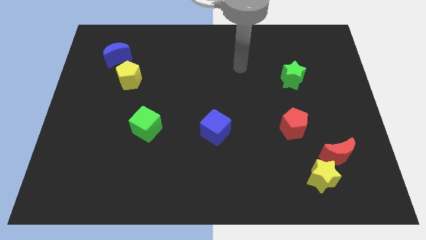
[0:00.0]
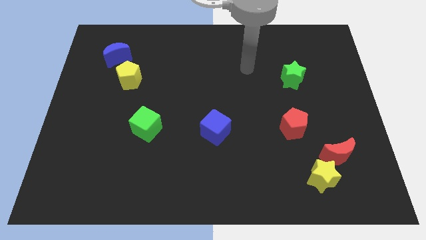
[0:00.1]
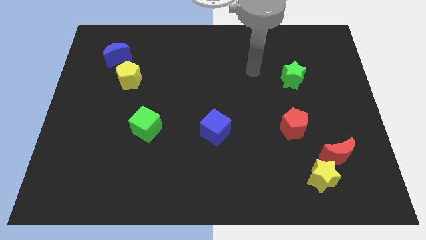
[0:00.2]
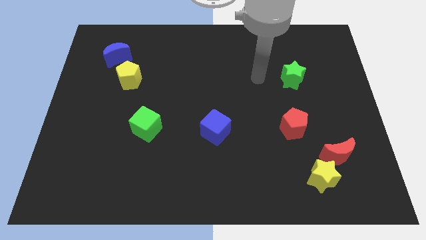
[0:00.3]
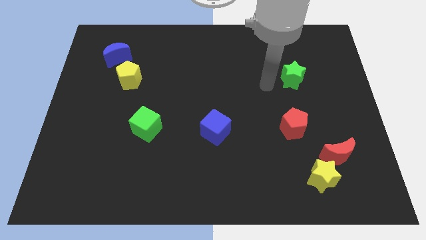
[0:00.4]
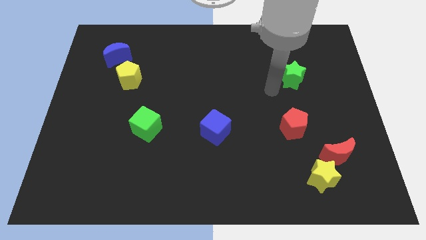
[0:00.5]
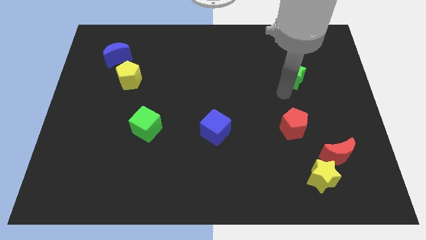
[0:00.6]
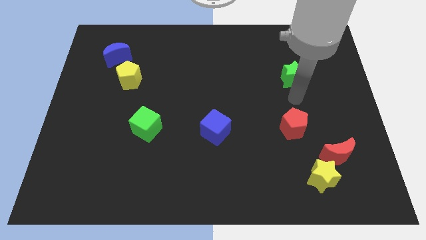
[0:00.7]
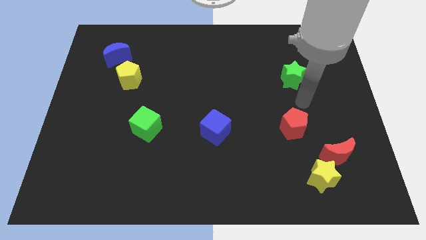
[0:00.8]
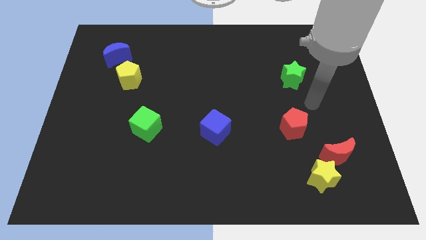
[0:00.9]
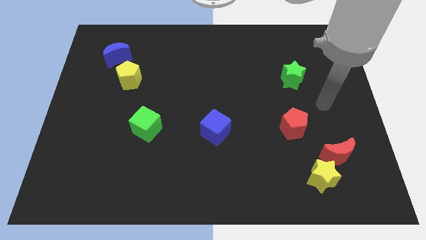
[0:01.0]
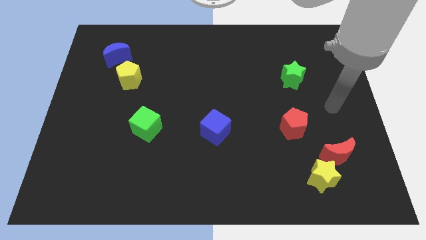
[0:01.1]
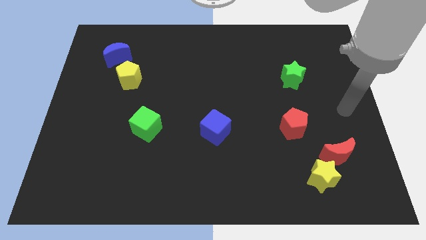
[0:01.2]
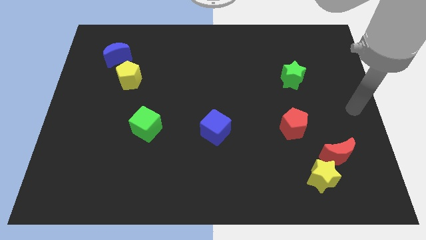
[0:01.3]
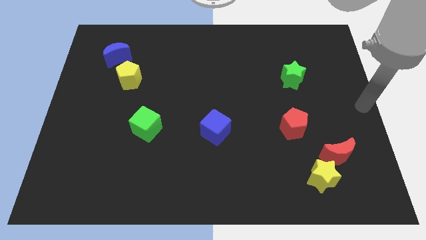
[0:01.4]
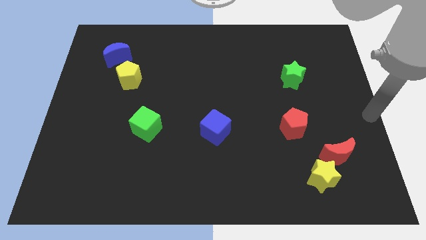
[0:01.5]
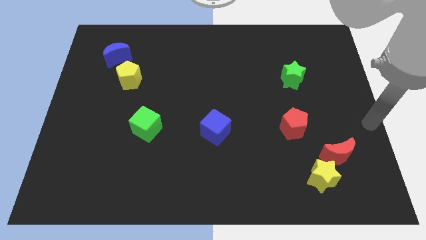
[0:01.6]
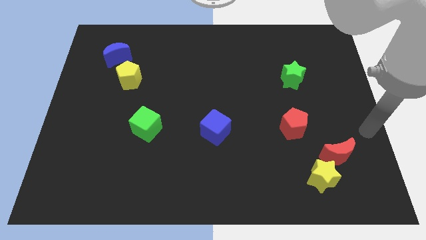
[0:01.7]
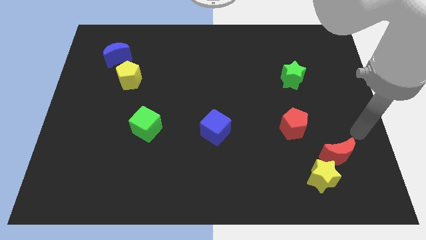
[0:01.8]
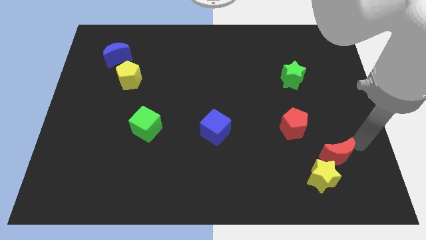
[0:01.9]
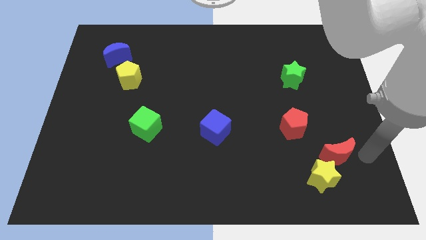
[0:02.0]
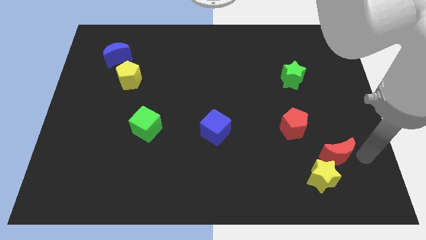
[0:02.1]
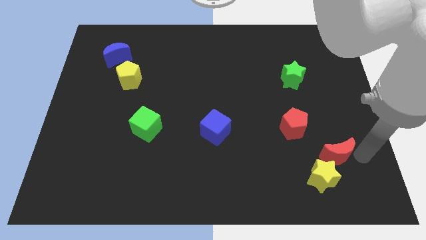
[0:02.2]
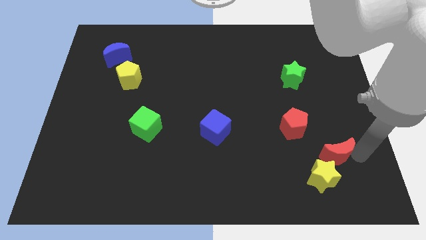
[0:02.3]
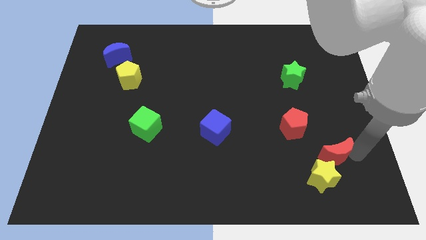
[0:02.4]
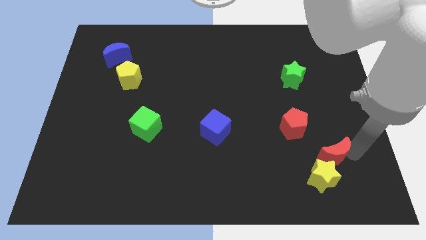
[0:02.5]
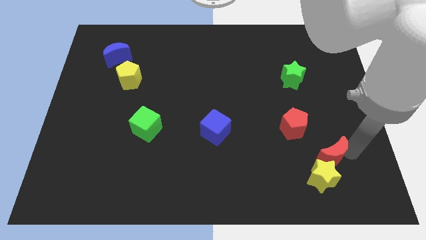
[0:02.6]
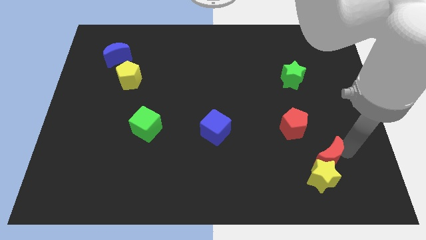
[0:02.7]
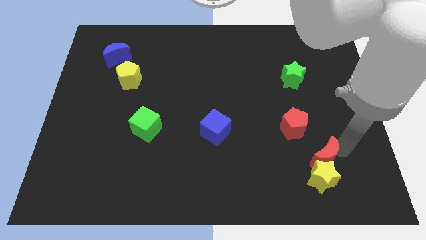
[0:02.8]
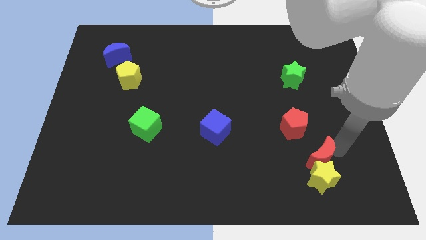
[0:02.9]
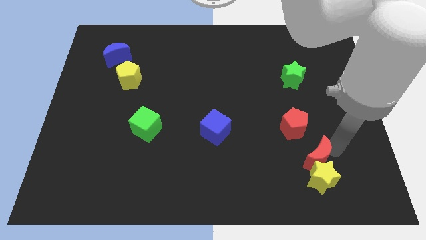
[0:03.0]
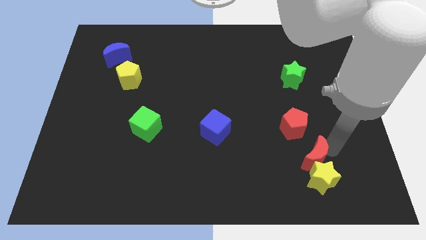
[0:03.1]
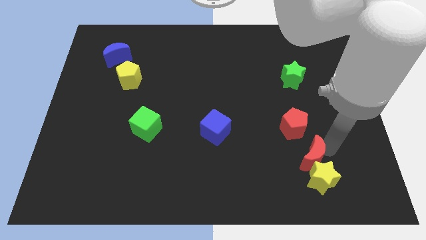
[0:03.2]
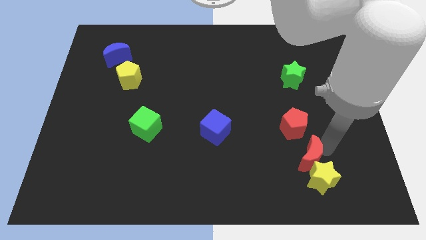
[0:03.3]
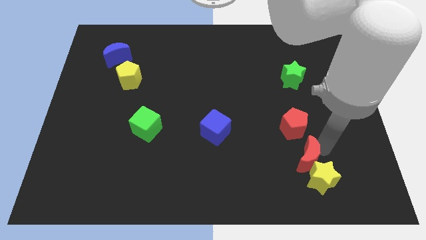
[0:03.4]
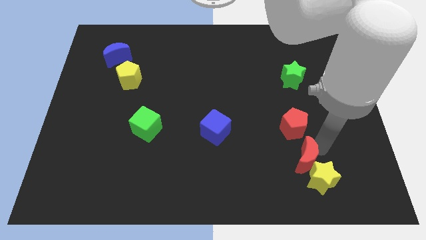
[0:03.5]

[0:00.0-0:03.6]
slightly push the red moon to the left

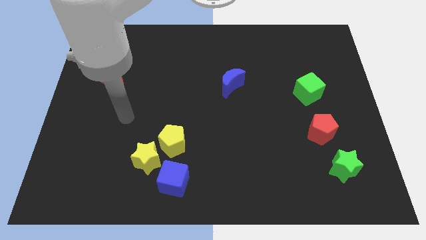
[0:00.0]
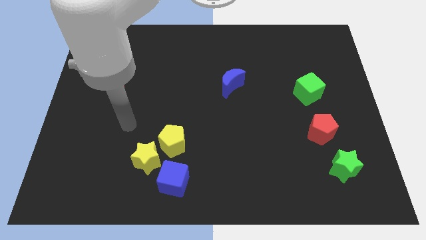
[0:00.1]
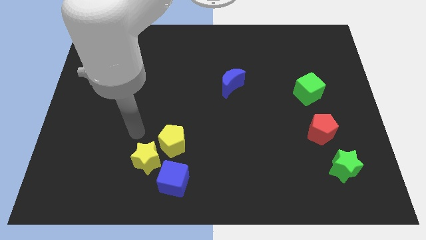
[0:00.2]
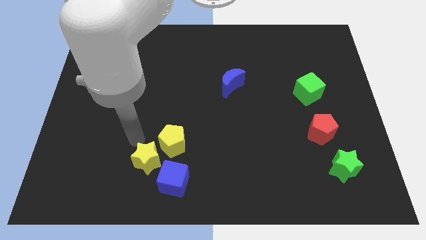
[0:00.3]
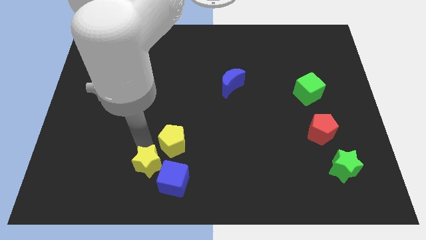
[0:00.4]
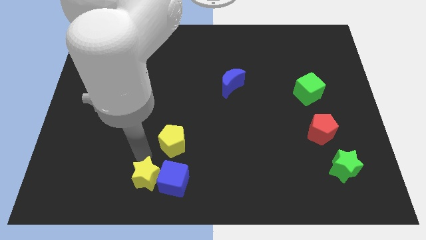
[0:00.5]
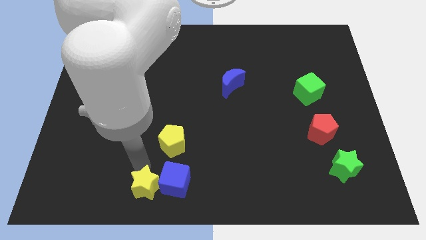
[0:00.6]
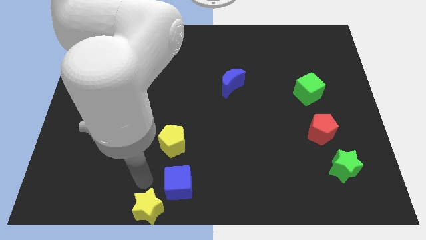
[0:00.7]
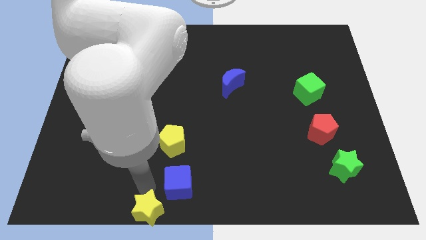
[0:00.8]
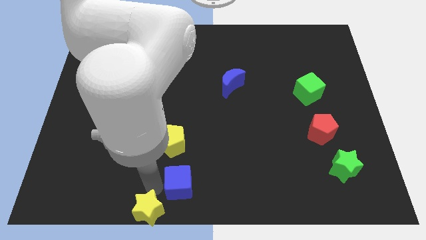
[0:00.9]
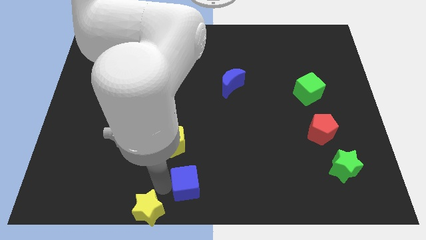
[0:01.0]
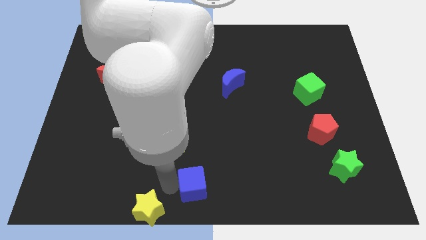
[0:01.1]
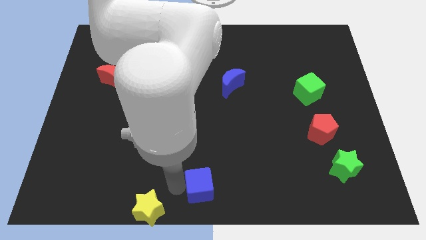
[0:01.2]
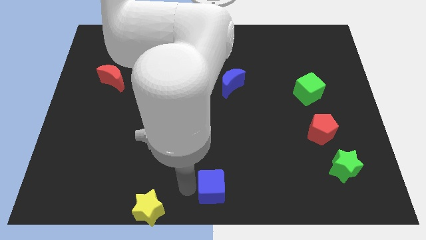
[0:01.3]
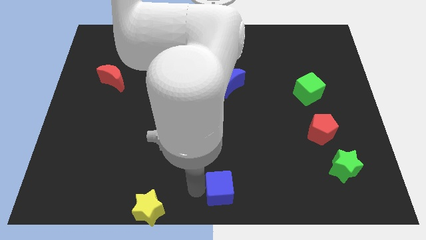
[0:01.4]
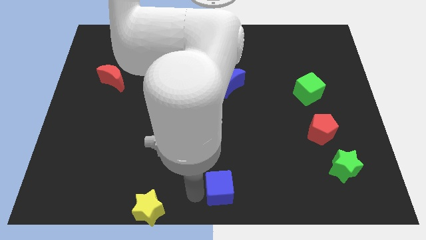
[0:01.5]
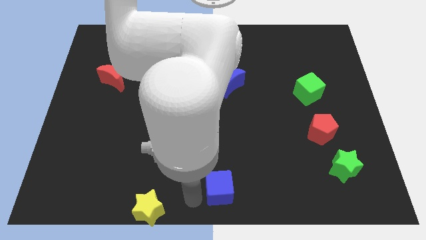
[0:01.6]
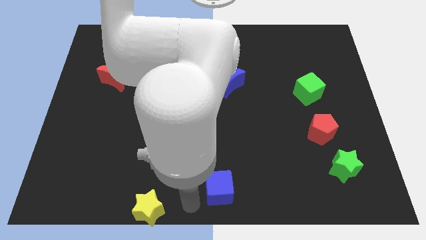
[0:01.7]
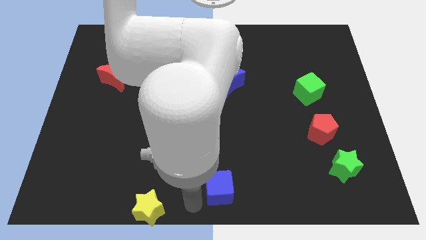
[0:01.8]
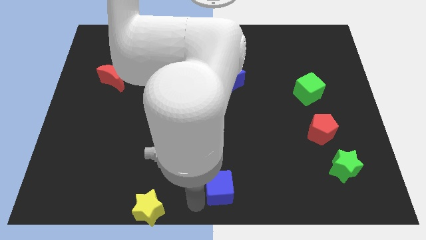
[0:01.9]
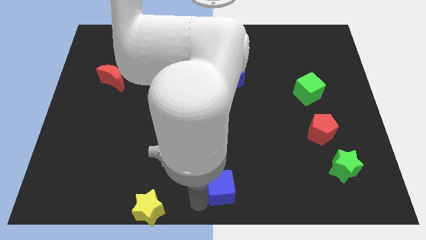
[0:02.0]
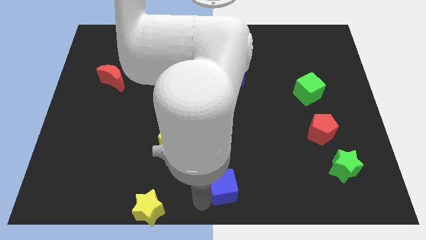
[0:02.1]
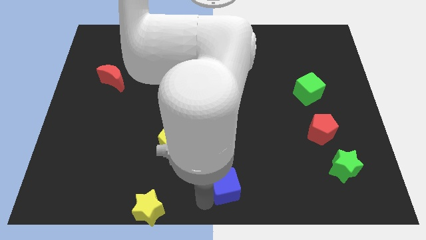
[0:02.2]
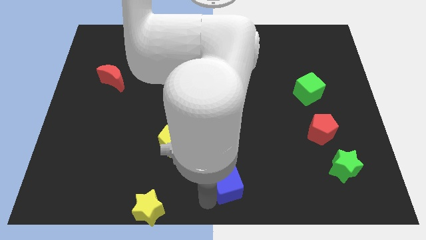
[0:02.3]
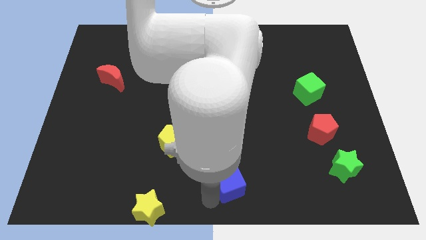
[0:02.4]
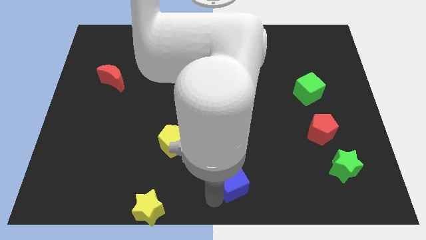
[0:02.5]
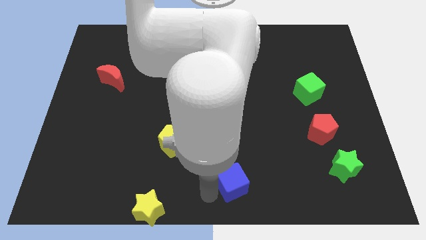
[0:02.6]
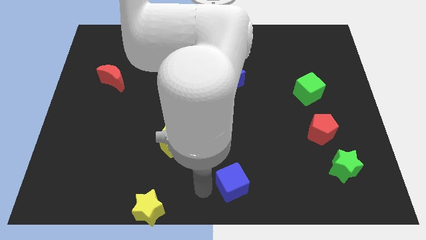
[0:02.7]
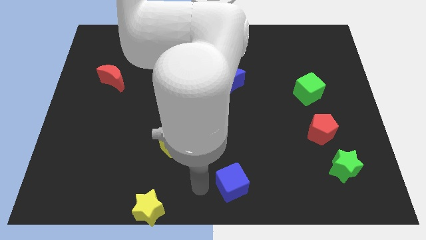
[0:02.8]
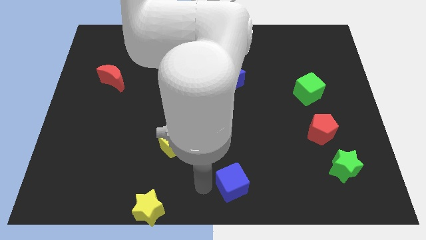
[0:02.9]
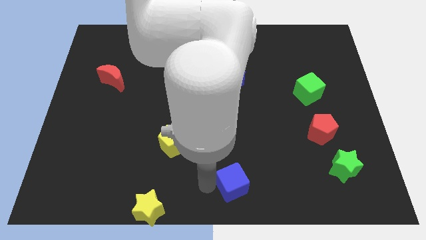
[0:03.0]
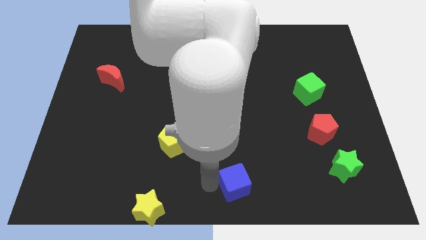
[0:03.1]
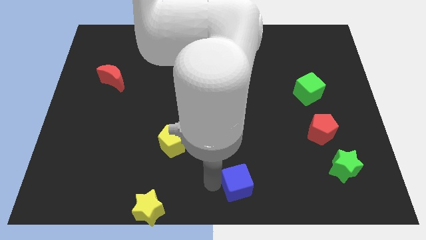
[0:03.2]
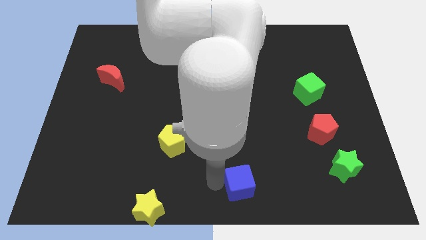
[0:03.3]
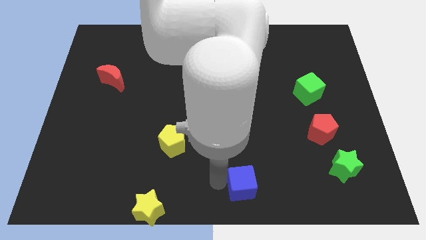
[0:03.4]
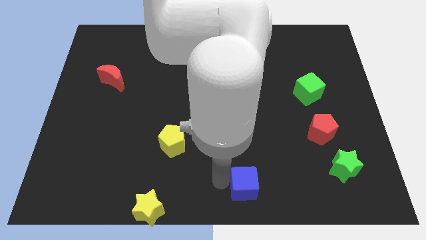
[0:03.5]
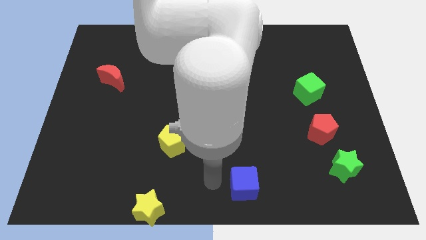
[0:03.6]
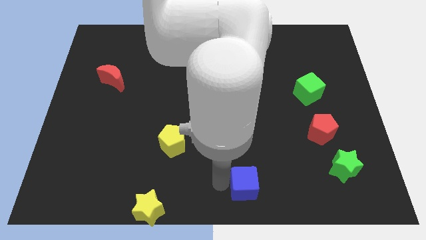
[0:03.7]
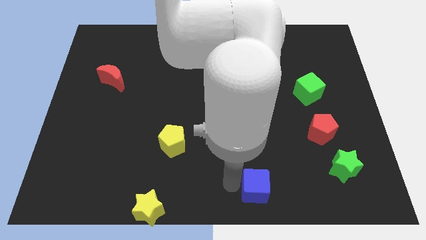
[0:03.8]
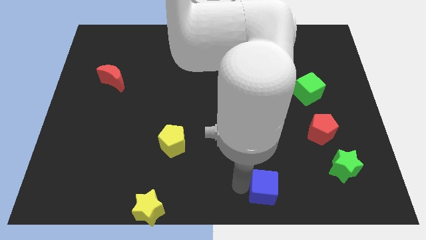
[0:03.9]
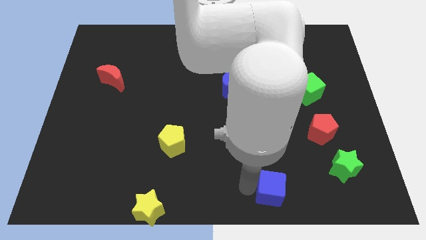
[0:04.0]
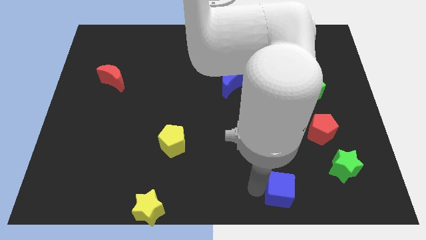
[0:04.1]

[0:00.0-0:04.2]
slide the blue cube to the right

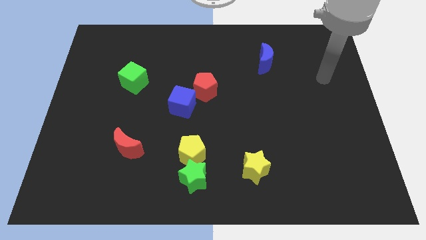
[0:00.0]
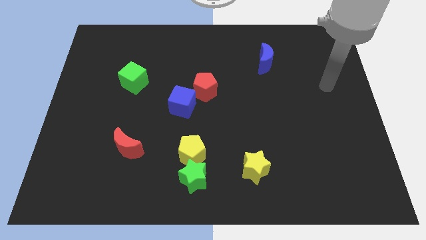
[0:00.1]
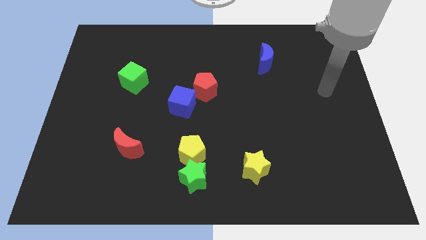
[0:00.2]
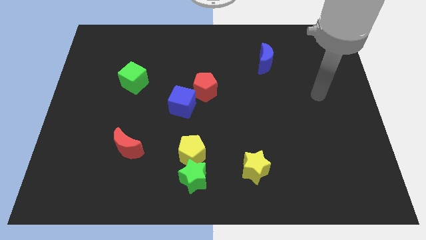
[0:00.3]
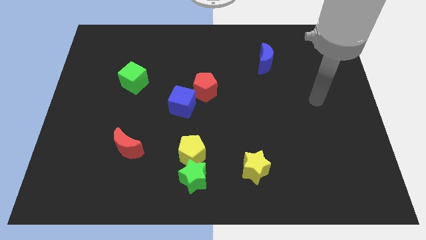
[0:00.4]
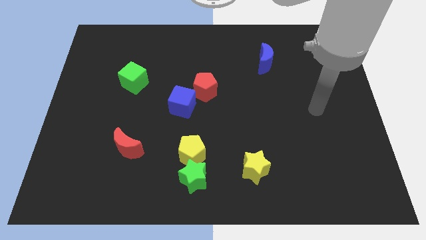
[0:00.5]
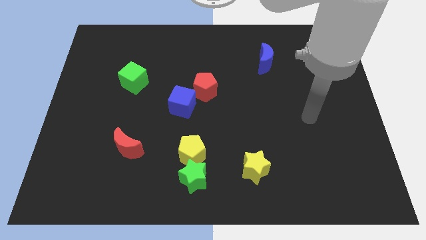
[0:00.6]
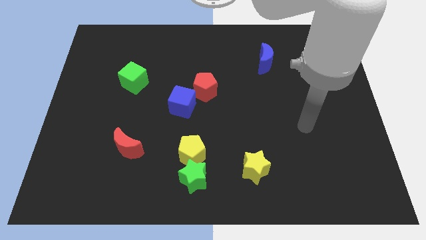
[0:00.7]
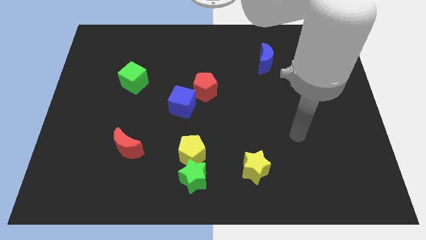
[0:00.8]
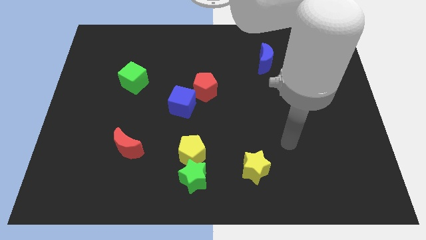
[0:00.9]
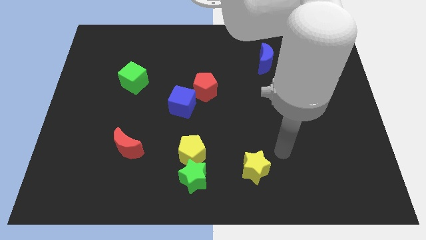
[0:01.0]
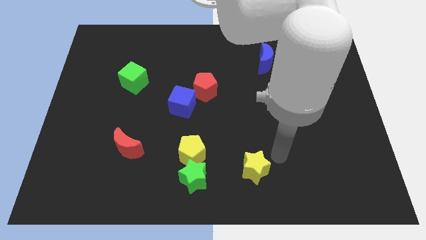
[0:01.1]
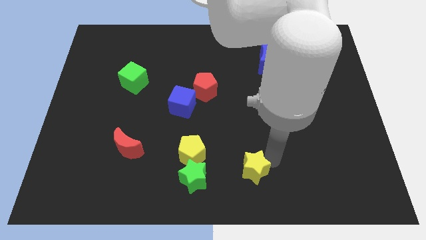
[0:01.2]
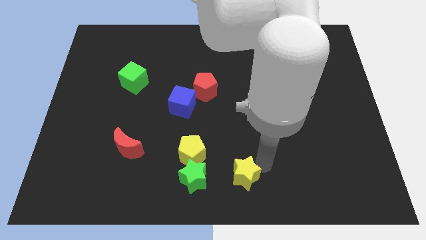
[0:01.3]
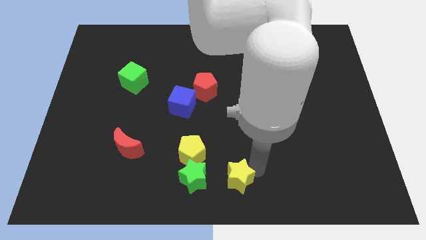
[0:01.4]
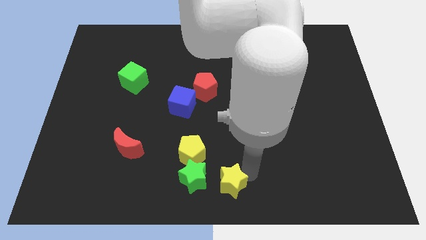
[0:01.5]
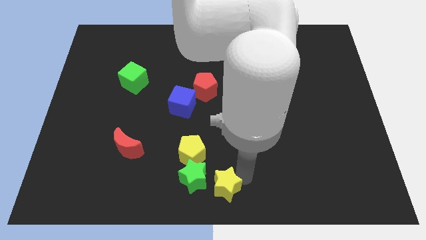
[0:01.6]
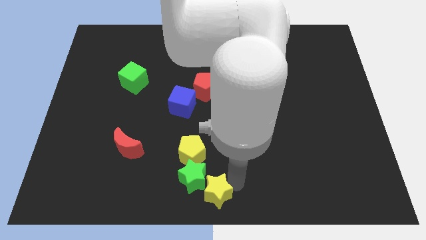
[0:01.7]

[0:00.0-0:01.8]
push the yellow star to the left a little
